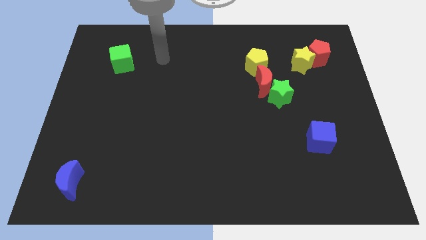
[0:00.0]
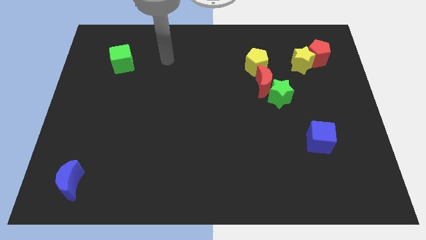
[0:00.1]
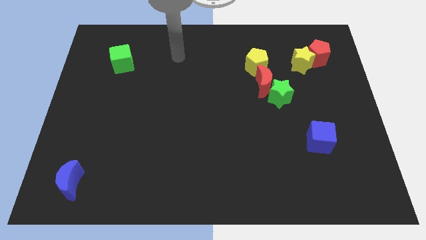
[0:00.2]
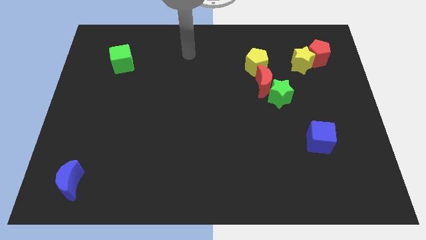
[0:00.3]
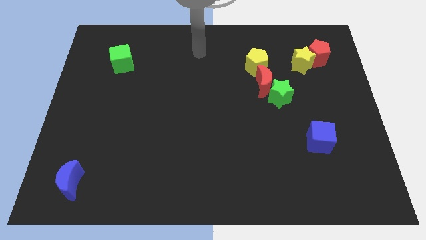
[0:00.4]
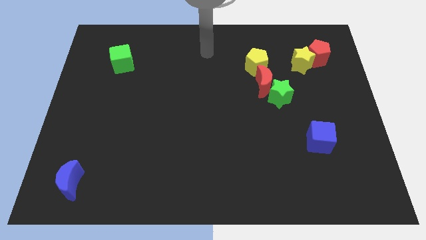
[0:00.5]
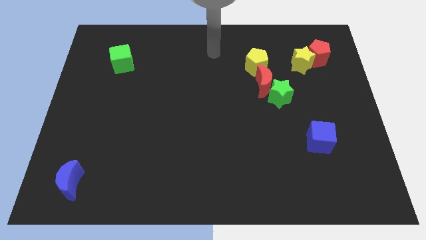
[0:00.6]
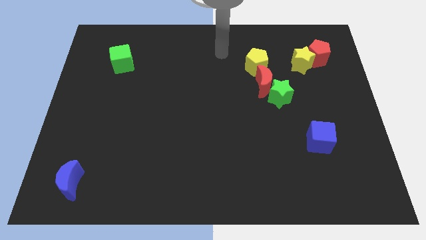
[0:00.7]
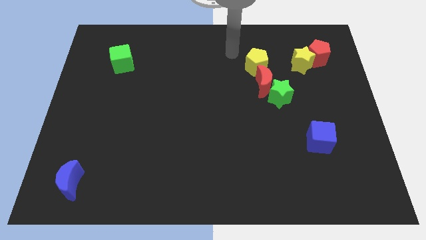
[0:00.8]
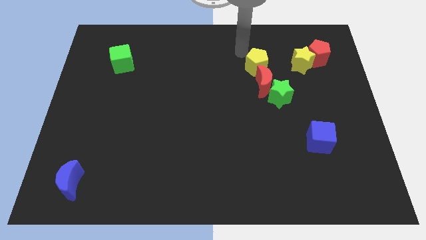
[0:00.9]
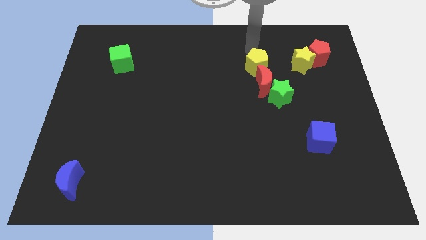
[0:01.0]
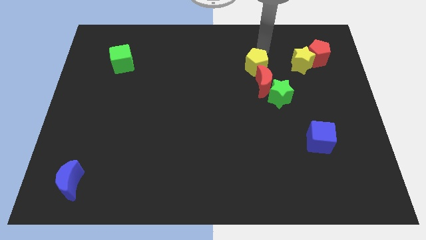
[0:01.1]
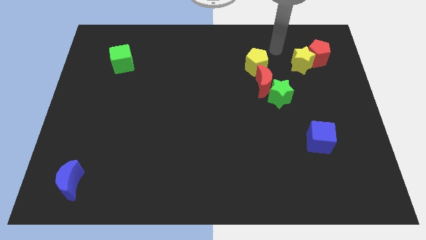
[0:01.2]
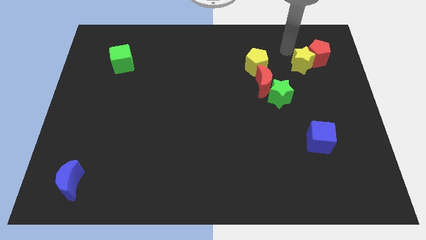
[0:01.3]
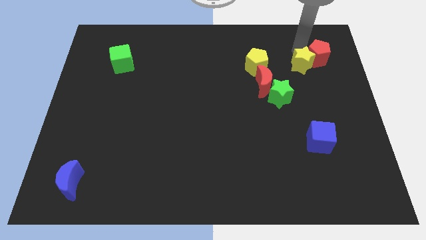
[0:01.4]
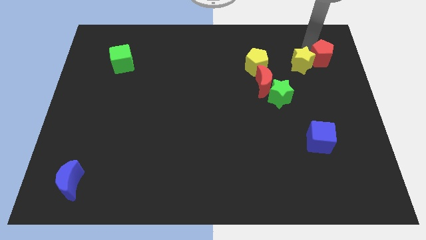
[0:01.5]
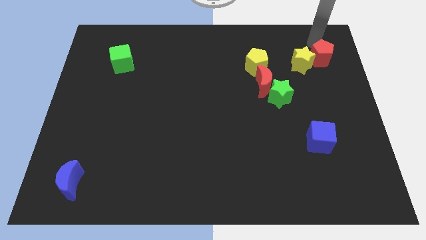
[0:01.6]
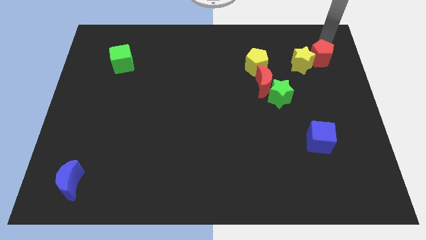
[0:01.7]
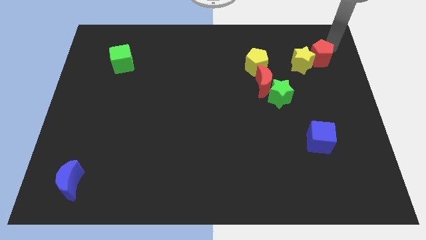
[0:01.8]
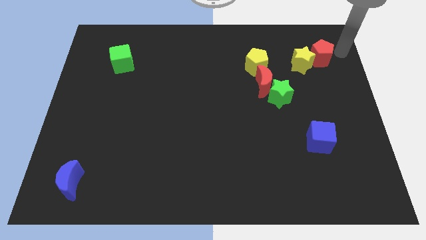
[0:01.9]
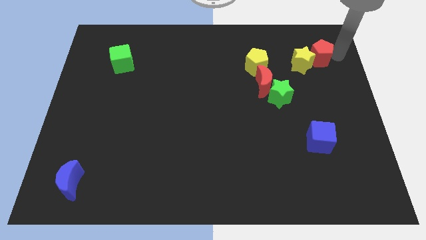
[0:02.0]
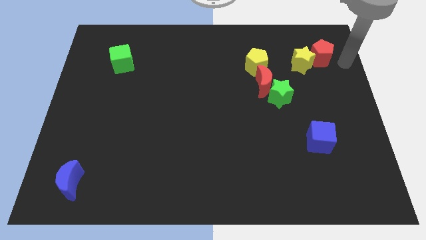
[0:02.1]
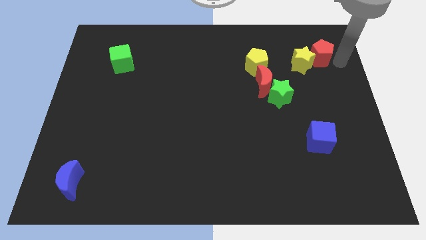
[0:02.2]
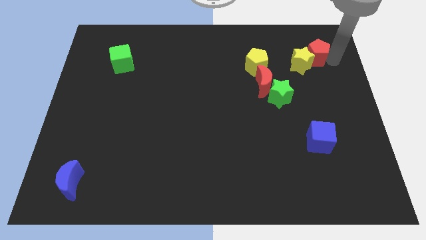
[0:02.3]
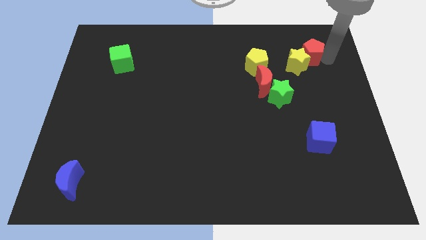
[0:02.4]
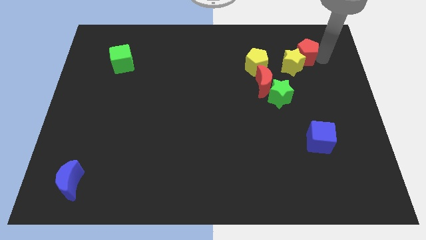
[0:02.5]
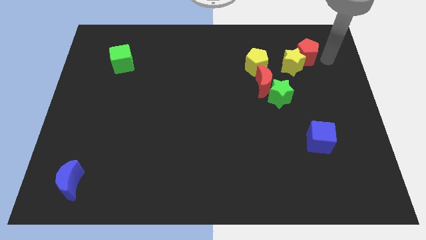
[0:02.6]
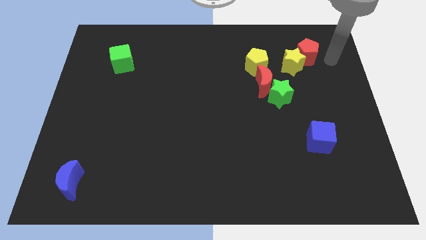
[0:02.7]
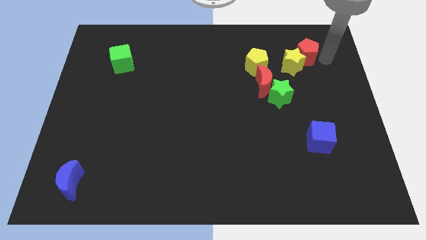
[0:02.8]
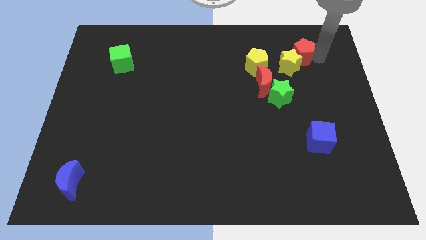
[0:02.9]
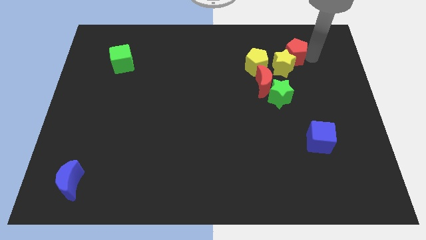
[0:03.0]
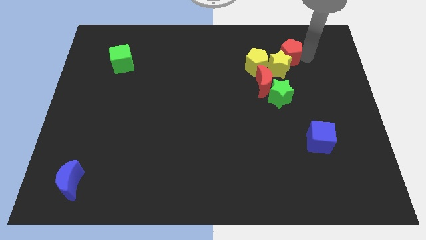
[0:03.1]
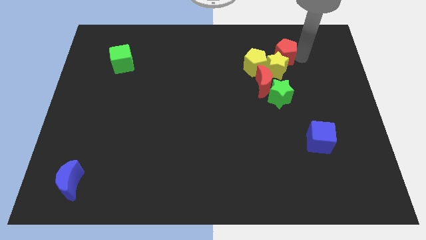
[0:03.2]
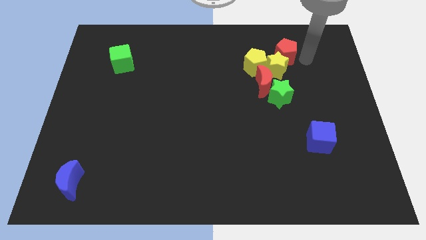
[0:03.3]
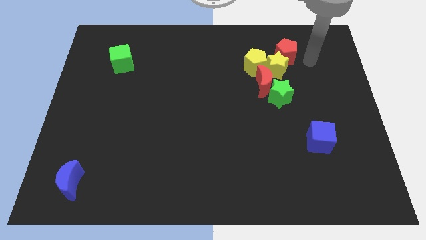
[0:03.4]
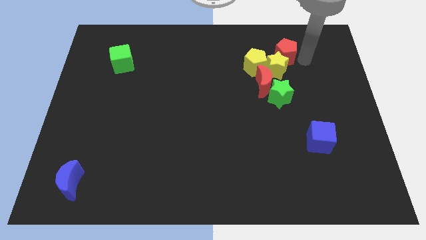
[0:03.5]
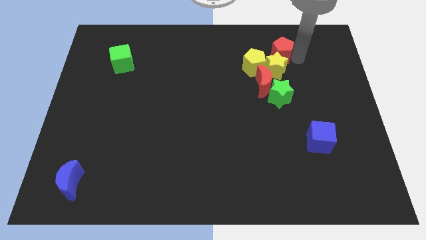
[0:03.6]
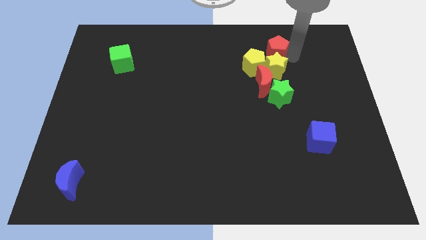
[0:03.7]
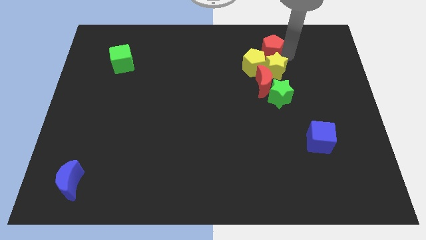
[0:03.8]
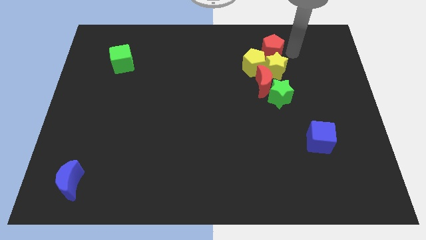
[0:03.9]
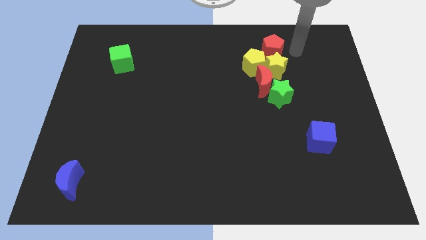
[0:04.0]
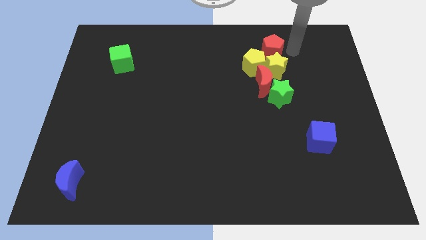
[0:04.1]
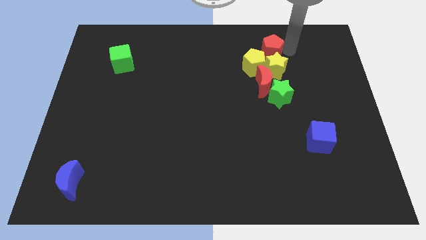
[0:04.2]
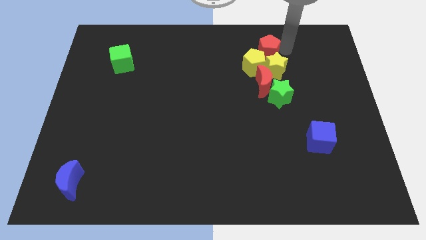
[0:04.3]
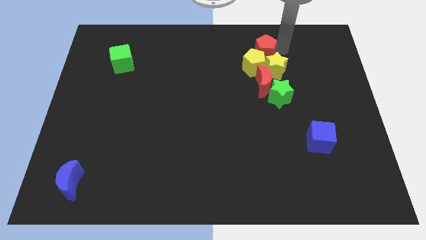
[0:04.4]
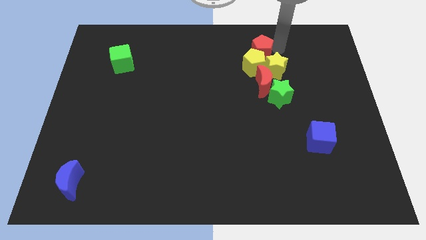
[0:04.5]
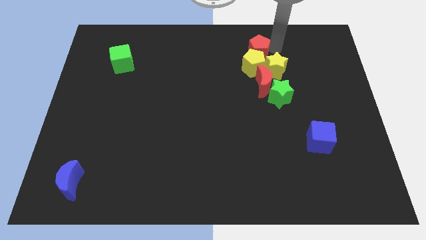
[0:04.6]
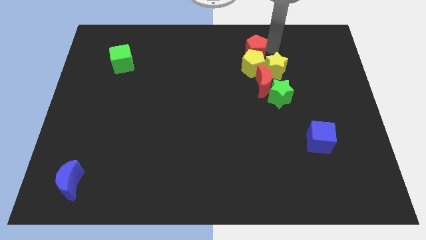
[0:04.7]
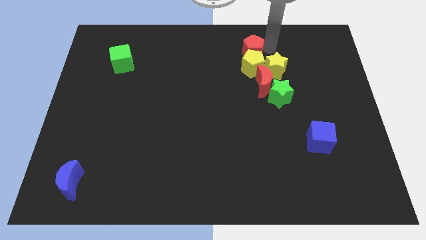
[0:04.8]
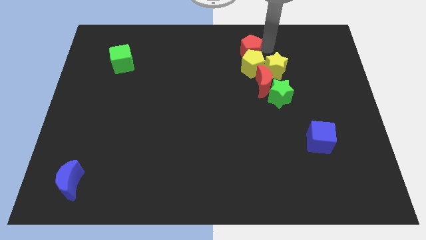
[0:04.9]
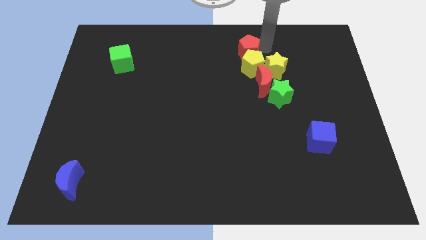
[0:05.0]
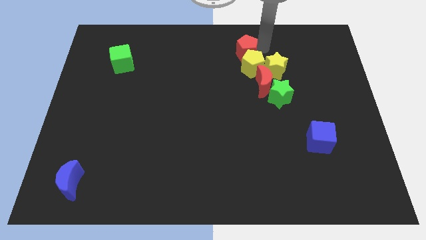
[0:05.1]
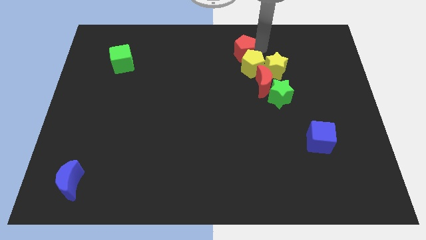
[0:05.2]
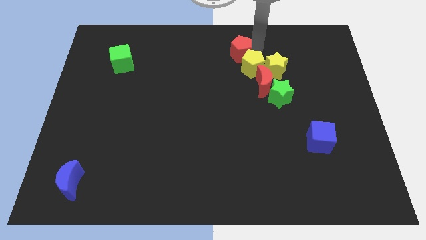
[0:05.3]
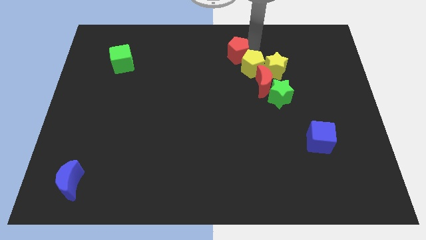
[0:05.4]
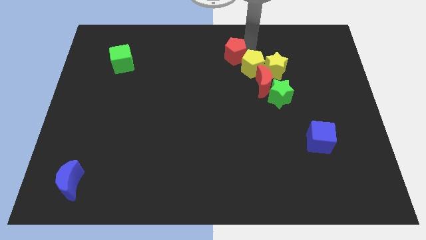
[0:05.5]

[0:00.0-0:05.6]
put the red pentagon left of the yellow pentagon

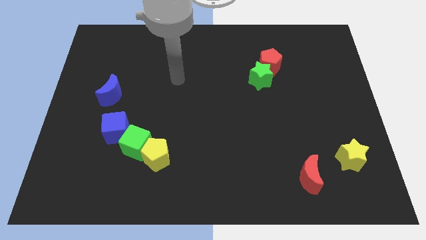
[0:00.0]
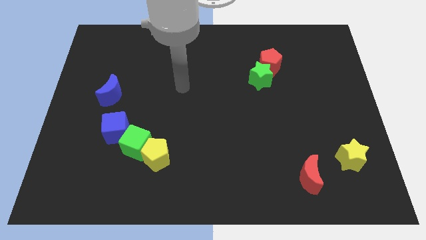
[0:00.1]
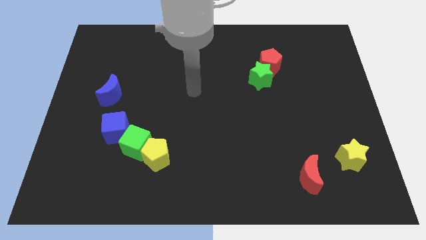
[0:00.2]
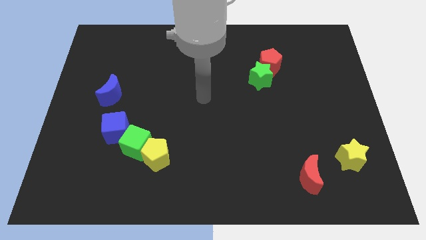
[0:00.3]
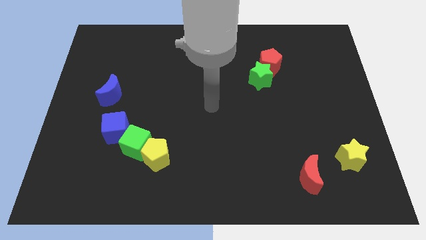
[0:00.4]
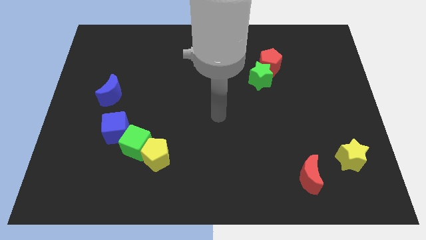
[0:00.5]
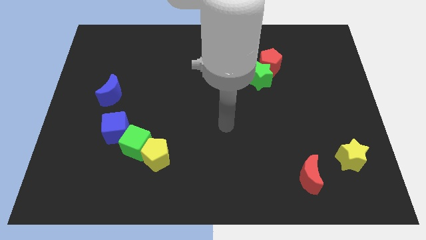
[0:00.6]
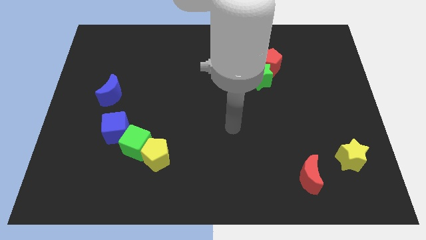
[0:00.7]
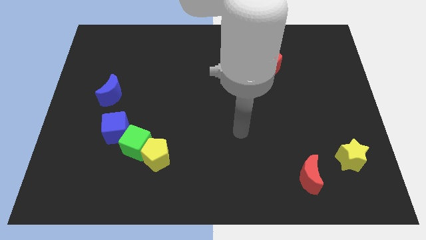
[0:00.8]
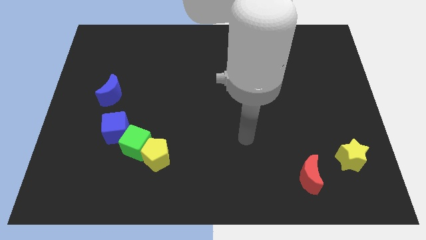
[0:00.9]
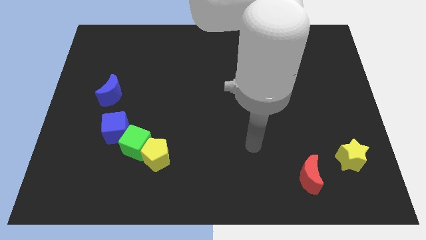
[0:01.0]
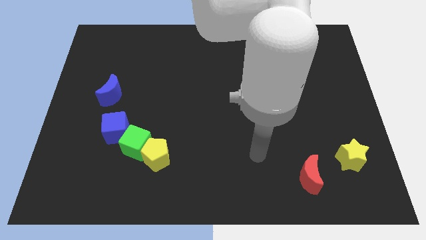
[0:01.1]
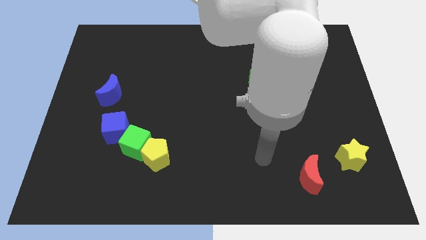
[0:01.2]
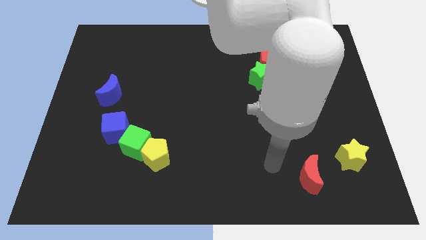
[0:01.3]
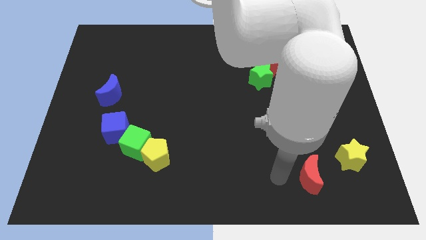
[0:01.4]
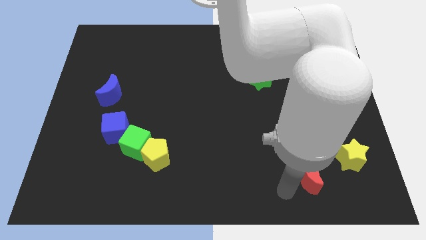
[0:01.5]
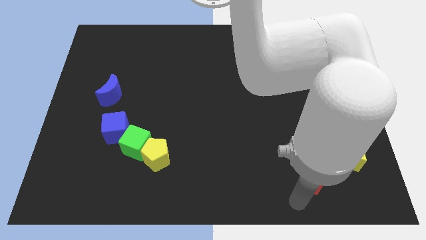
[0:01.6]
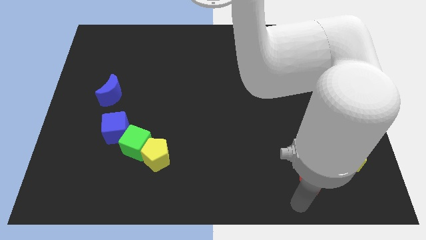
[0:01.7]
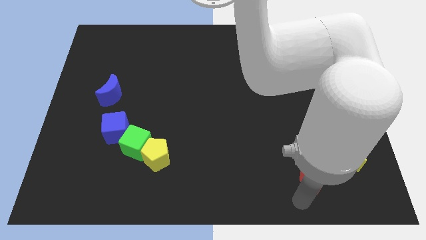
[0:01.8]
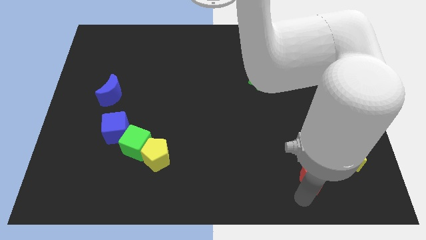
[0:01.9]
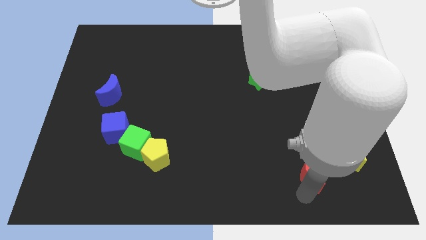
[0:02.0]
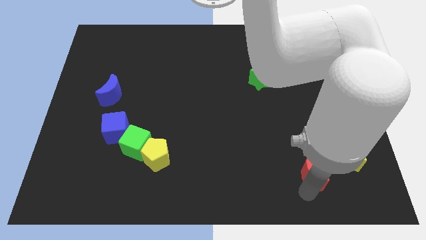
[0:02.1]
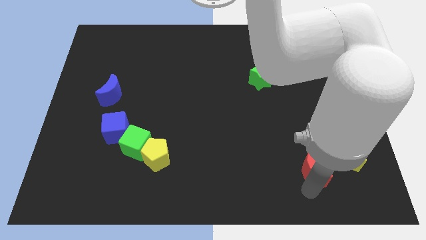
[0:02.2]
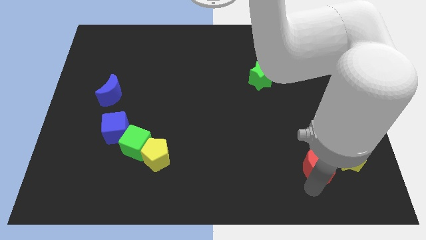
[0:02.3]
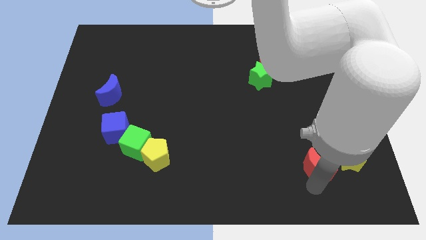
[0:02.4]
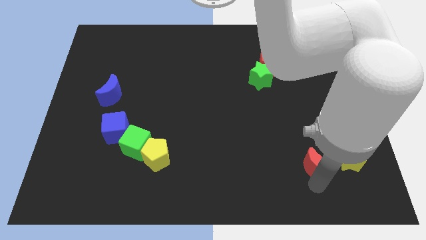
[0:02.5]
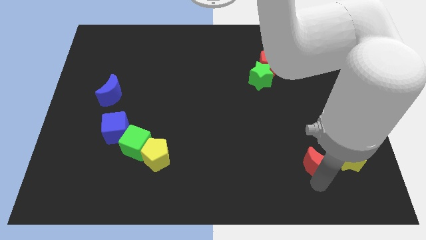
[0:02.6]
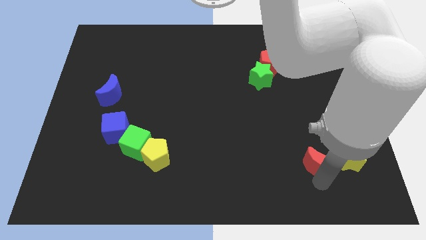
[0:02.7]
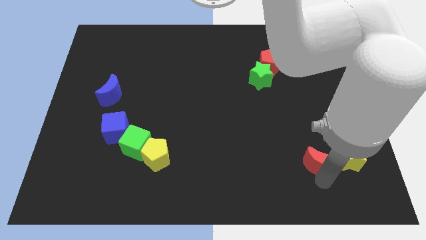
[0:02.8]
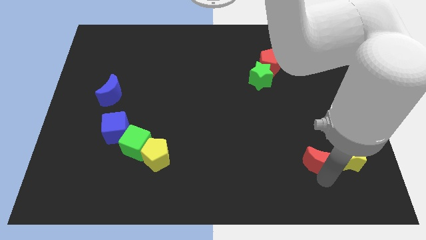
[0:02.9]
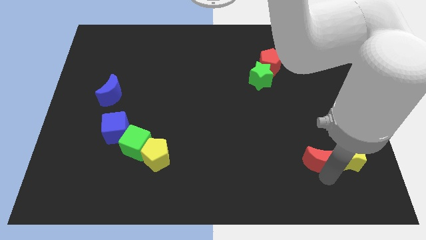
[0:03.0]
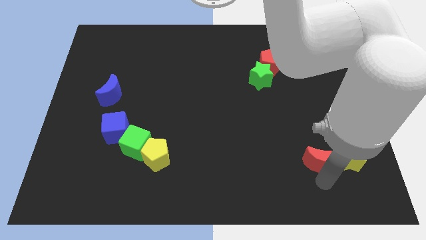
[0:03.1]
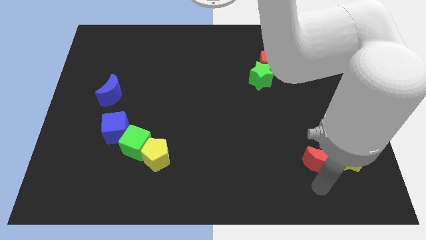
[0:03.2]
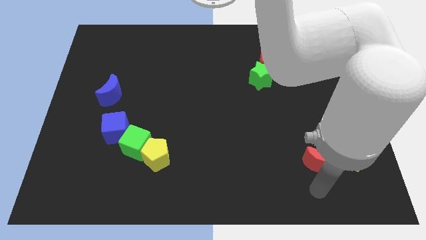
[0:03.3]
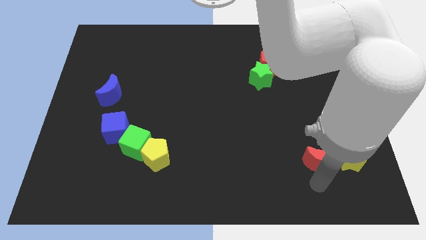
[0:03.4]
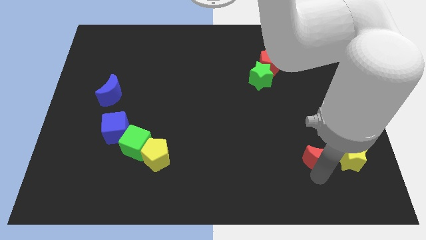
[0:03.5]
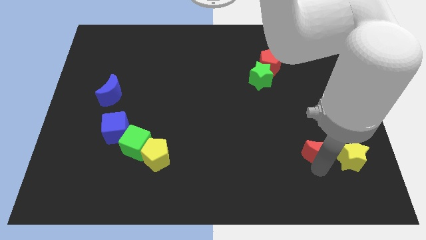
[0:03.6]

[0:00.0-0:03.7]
move the red moon diagonally up and to the left of the yellow star
